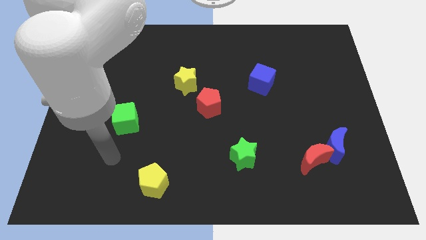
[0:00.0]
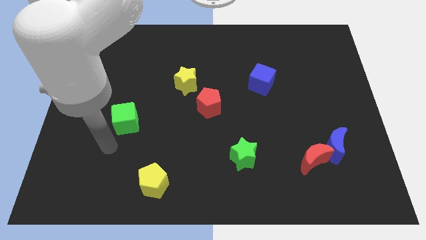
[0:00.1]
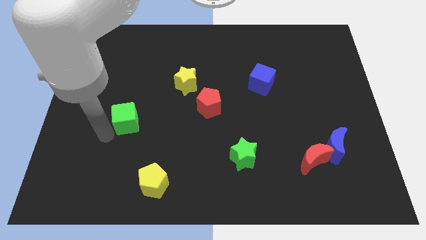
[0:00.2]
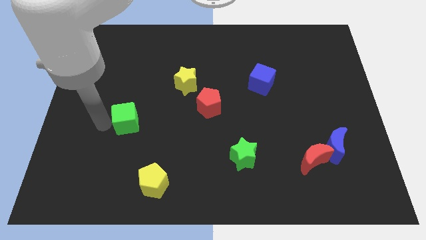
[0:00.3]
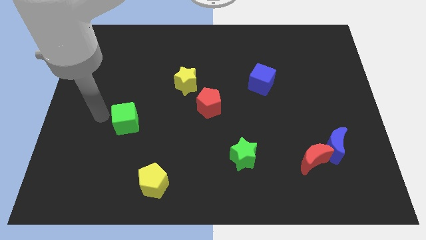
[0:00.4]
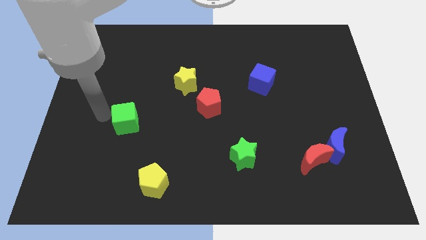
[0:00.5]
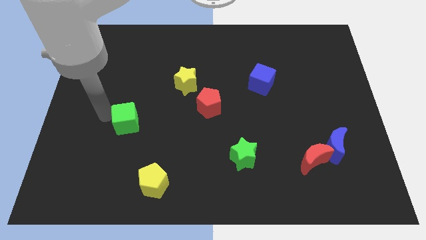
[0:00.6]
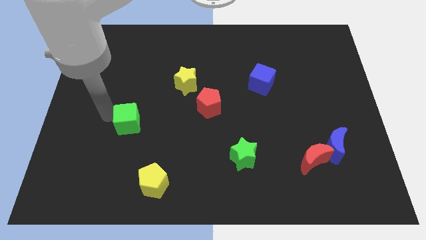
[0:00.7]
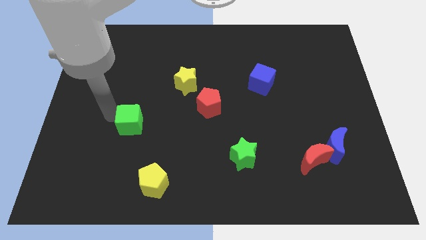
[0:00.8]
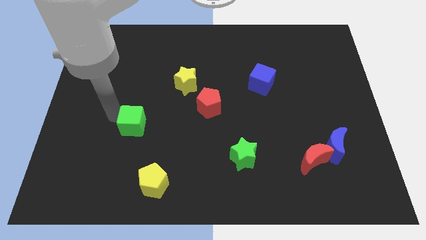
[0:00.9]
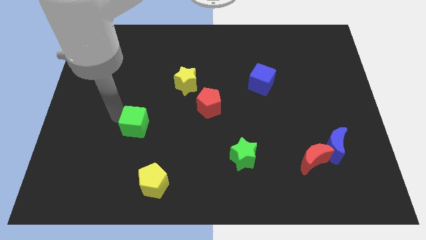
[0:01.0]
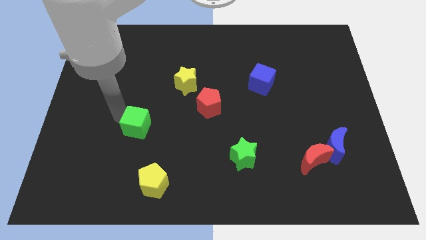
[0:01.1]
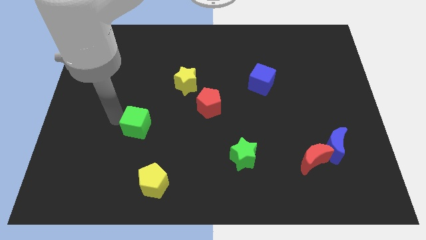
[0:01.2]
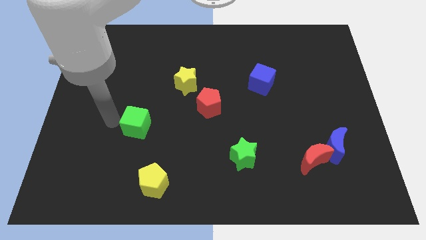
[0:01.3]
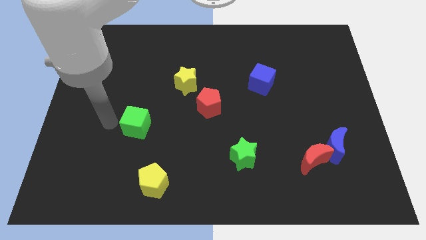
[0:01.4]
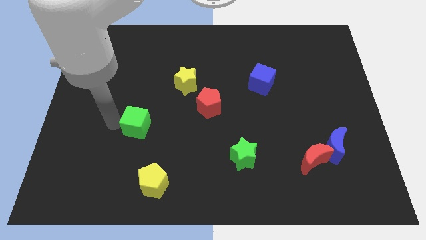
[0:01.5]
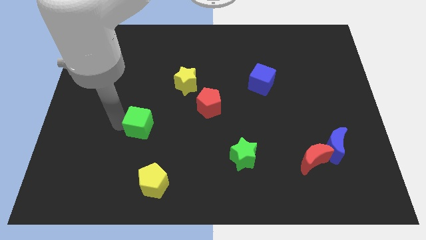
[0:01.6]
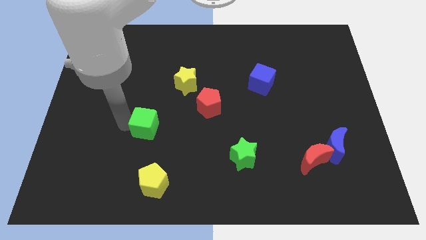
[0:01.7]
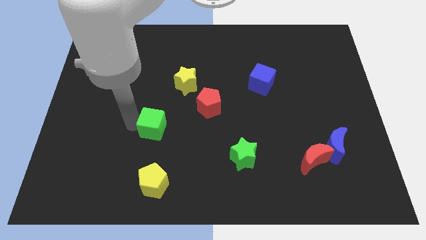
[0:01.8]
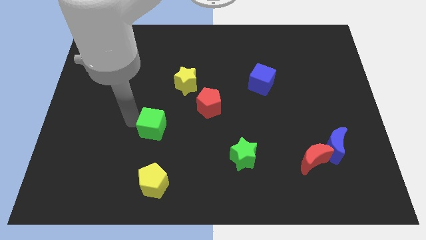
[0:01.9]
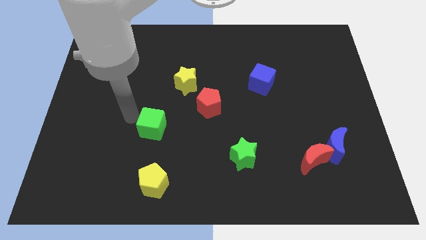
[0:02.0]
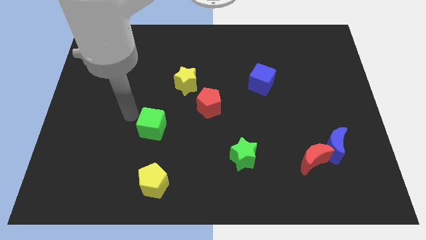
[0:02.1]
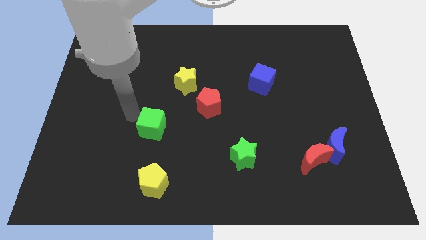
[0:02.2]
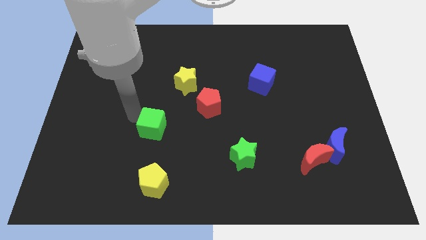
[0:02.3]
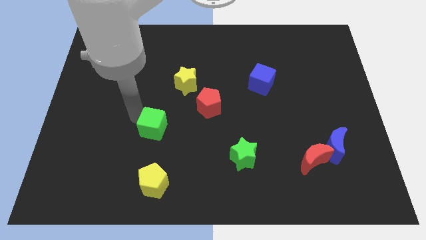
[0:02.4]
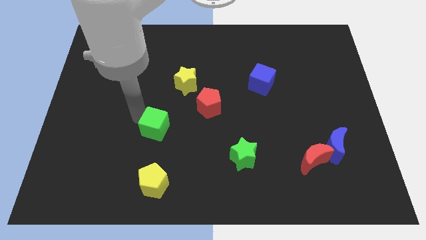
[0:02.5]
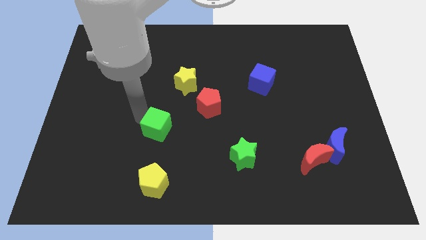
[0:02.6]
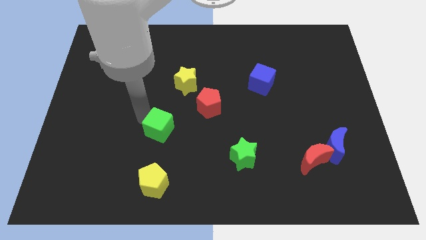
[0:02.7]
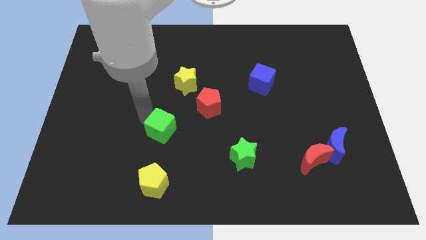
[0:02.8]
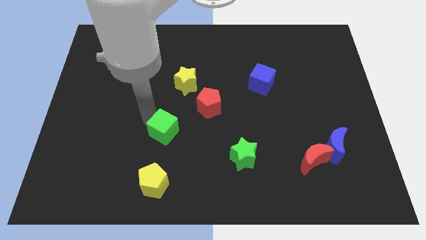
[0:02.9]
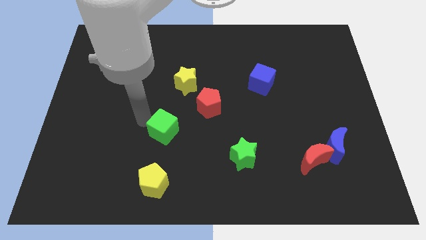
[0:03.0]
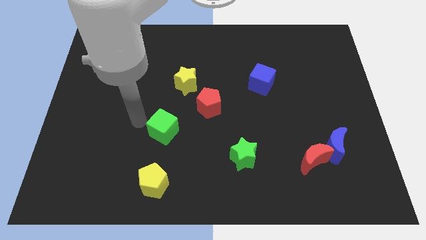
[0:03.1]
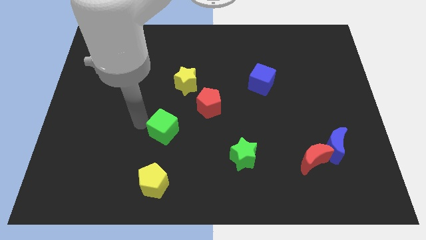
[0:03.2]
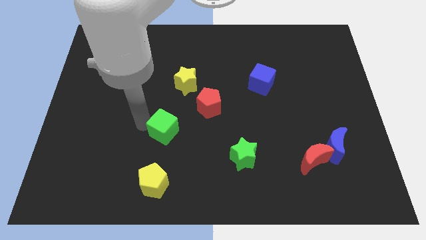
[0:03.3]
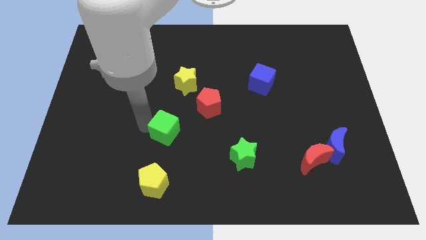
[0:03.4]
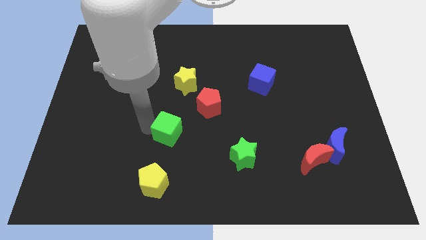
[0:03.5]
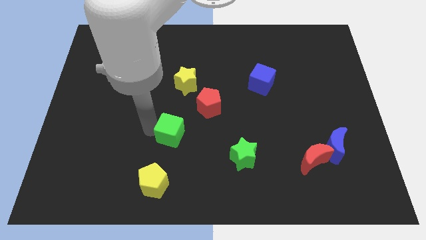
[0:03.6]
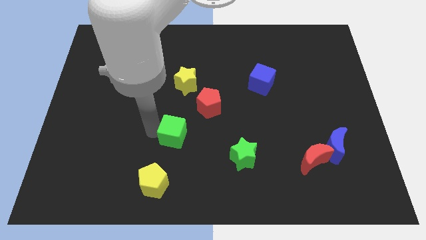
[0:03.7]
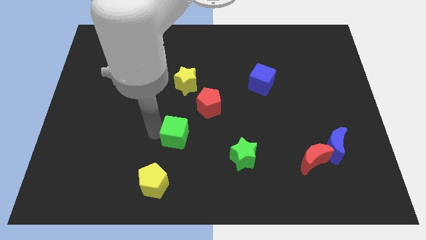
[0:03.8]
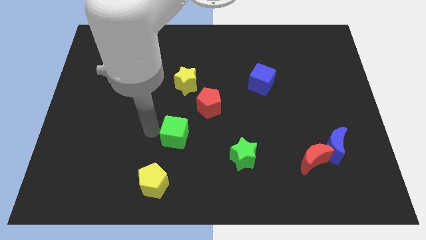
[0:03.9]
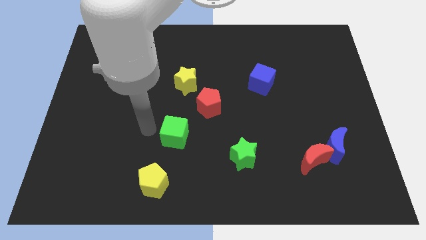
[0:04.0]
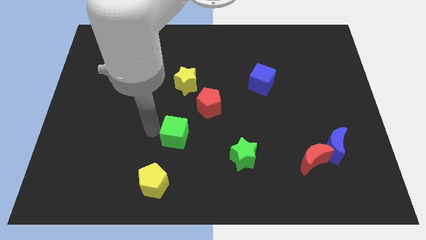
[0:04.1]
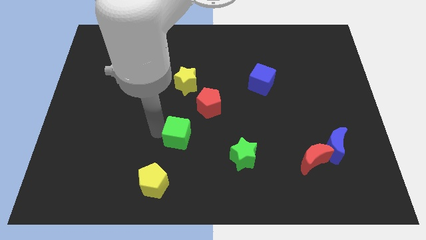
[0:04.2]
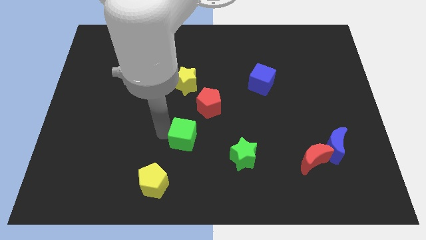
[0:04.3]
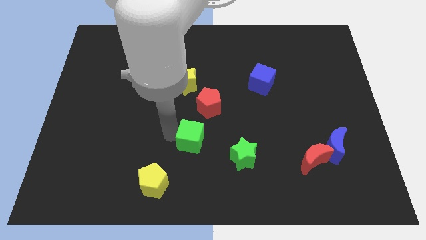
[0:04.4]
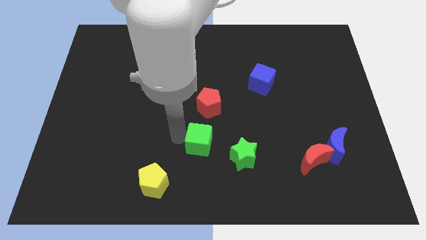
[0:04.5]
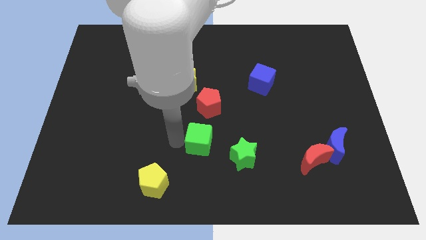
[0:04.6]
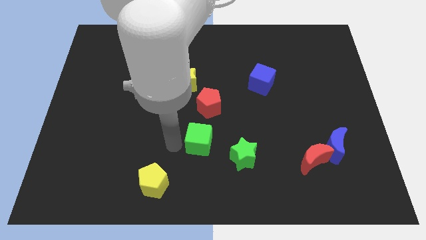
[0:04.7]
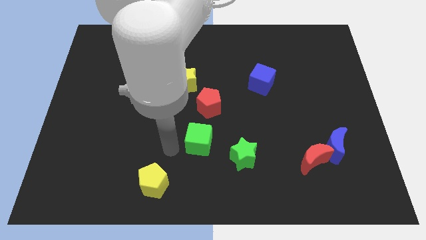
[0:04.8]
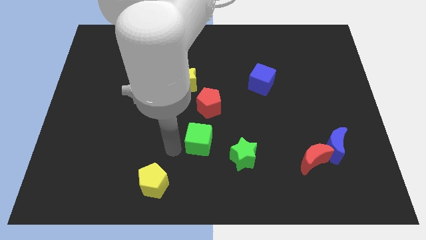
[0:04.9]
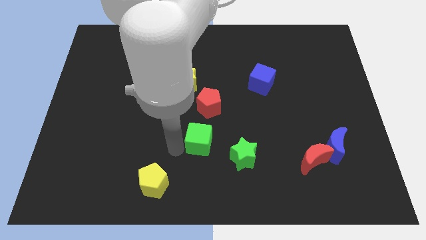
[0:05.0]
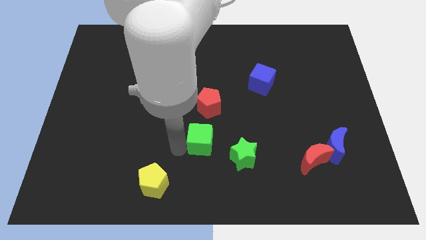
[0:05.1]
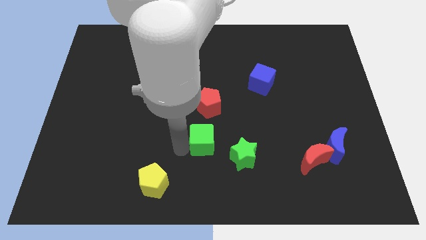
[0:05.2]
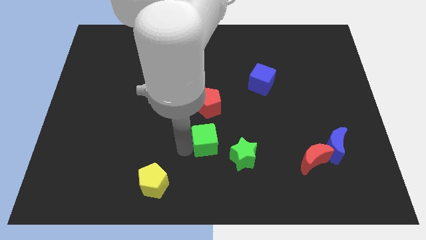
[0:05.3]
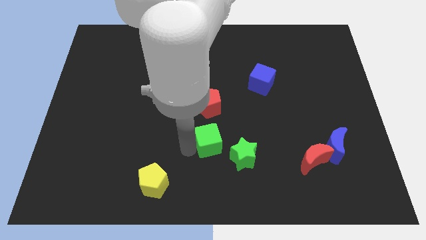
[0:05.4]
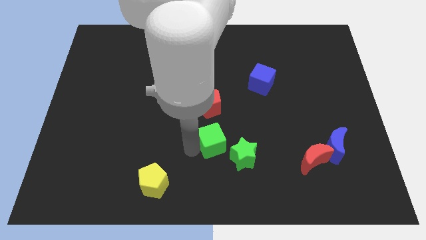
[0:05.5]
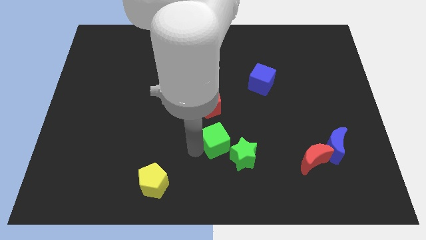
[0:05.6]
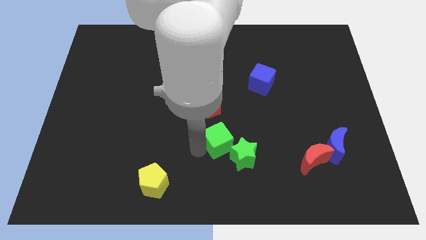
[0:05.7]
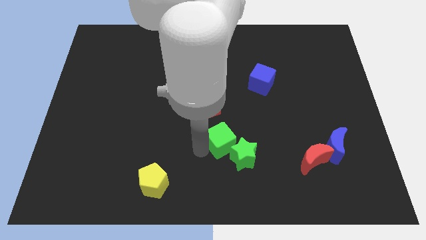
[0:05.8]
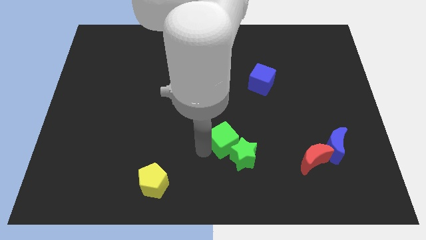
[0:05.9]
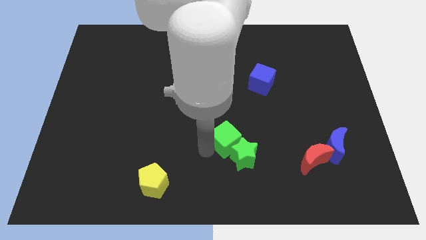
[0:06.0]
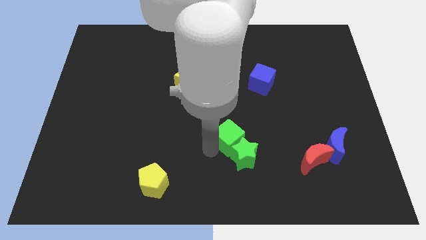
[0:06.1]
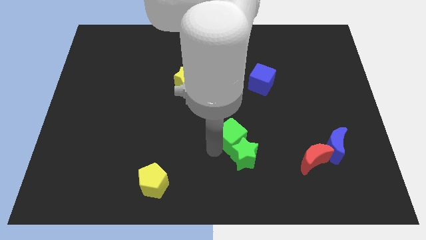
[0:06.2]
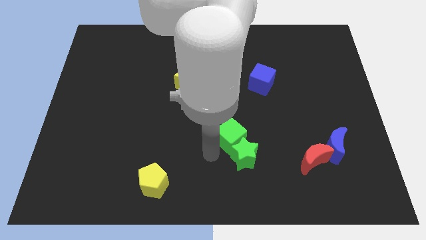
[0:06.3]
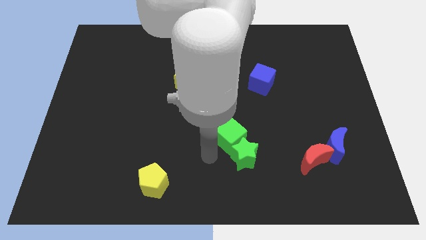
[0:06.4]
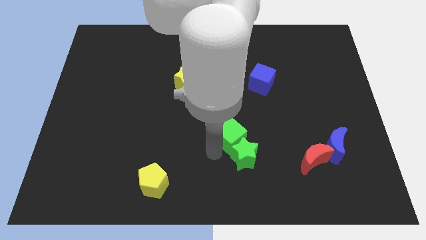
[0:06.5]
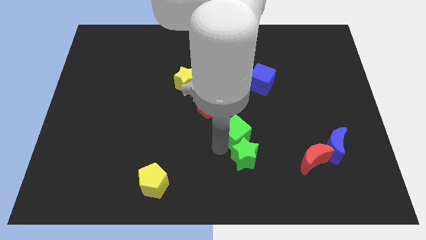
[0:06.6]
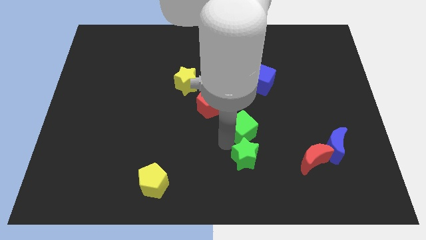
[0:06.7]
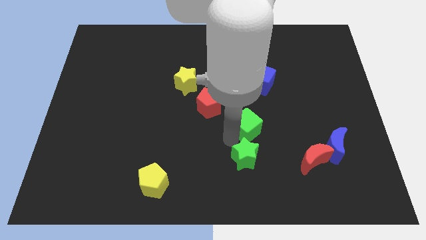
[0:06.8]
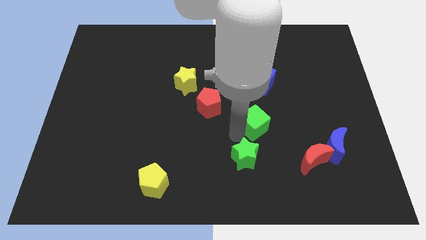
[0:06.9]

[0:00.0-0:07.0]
put the green cube to the bottom of the blue cube
